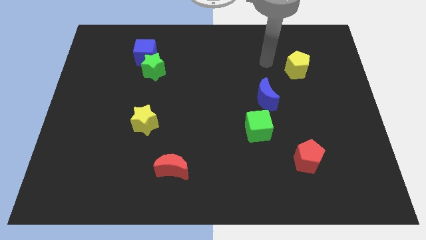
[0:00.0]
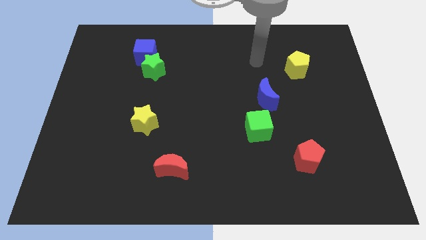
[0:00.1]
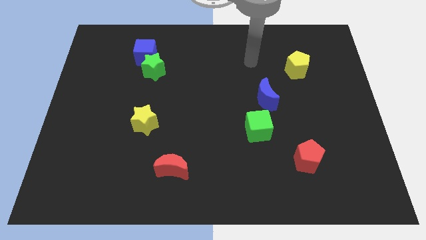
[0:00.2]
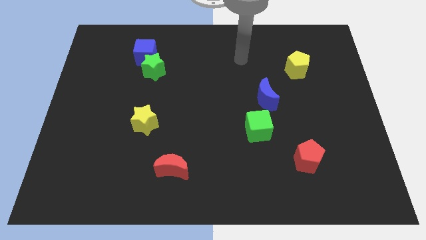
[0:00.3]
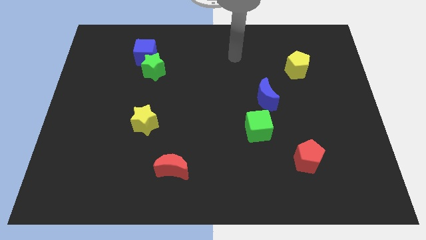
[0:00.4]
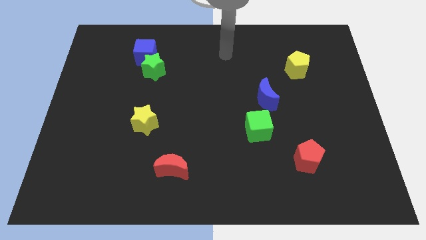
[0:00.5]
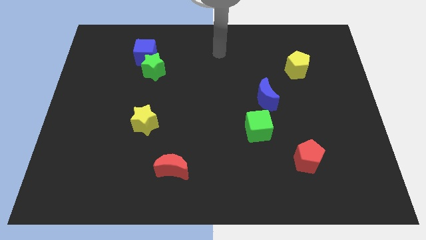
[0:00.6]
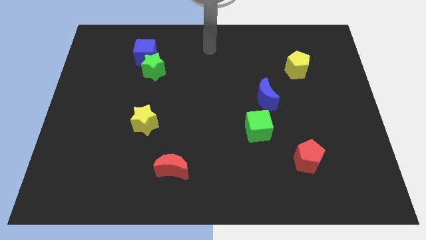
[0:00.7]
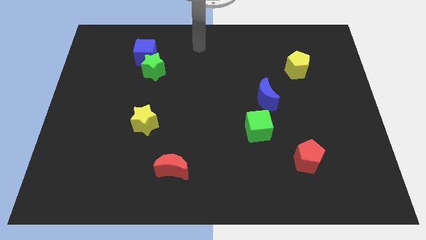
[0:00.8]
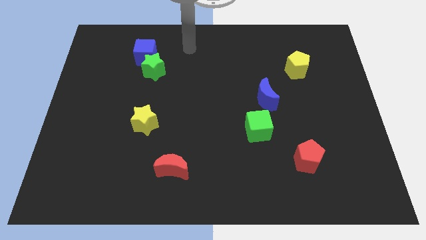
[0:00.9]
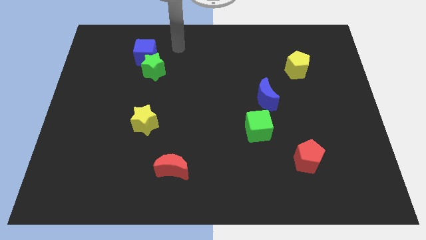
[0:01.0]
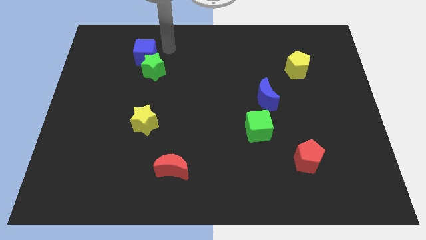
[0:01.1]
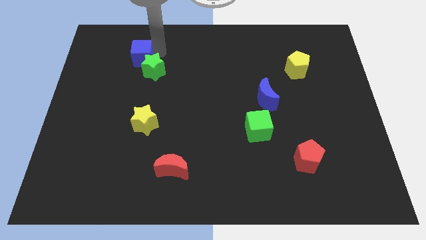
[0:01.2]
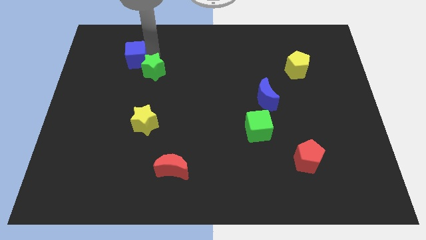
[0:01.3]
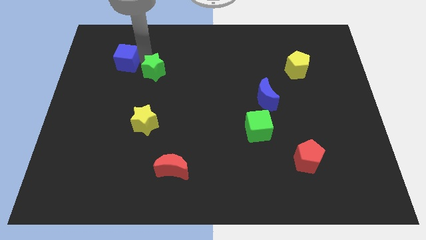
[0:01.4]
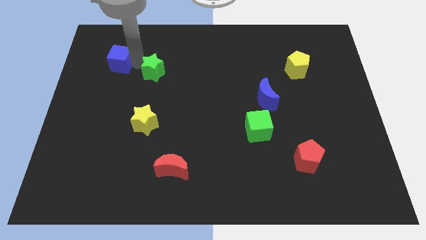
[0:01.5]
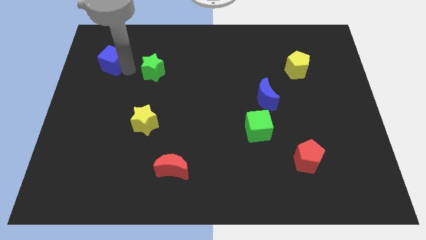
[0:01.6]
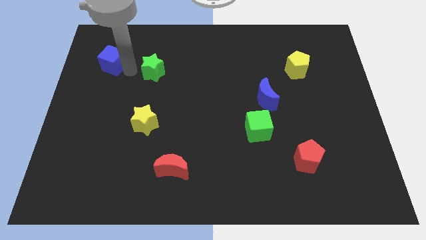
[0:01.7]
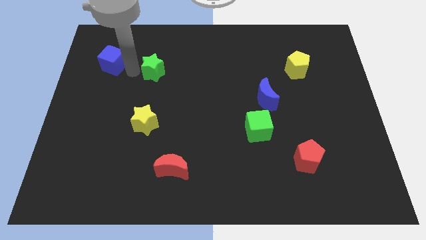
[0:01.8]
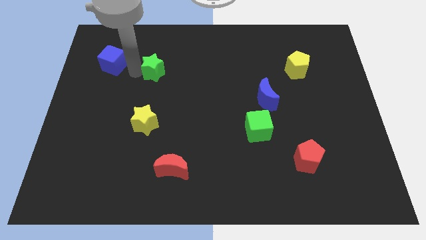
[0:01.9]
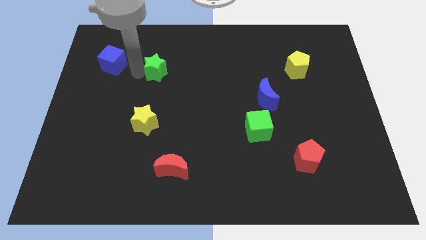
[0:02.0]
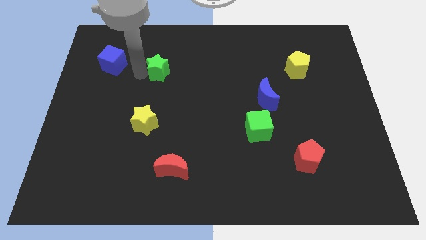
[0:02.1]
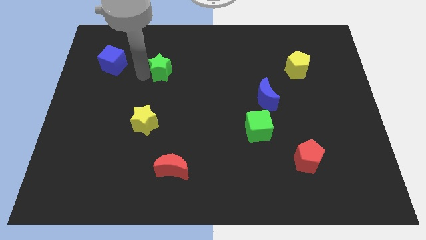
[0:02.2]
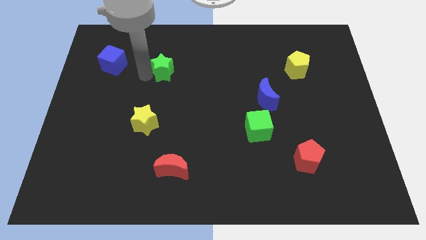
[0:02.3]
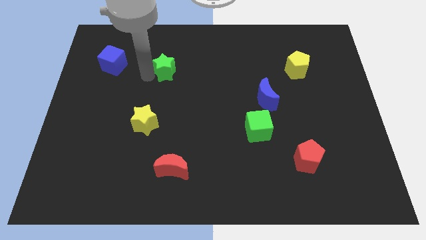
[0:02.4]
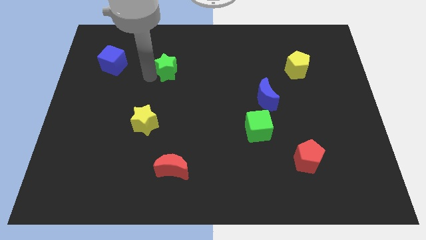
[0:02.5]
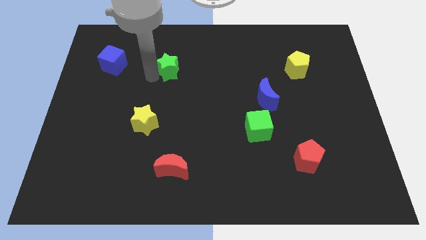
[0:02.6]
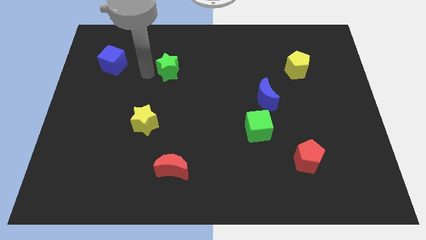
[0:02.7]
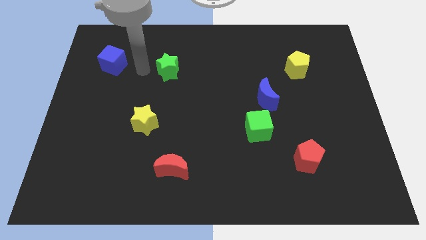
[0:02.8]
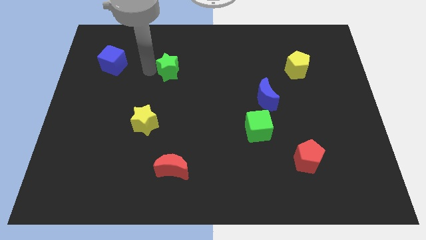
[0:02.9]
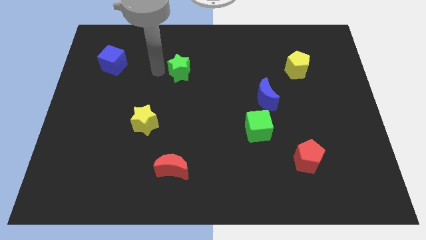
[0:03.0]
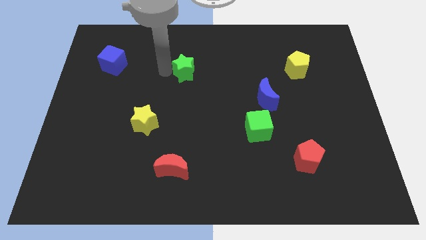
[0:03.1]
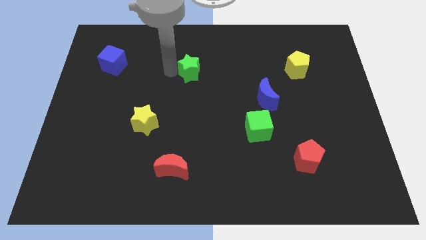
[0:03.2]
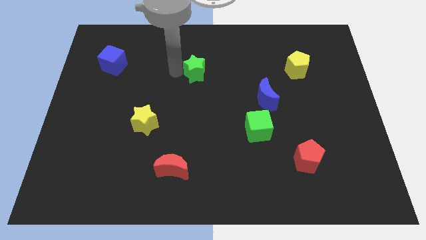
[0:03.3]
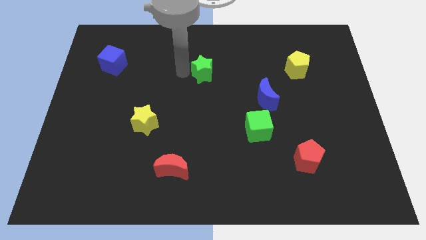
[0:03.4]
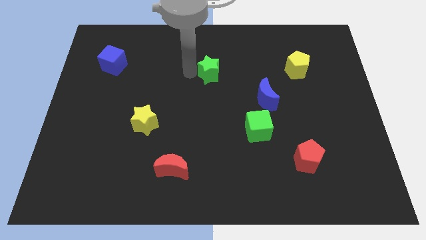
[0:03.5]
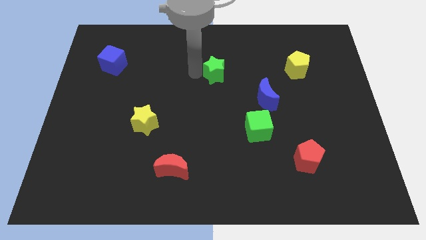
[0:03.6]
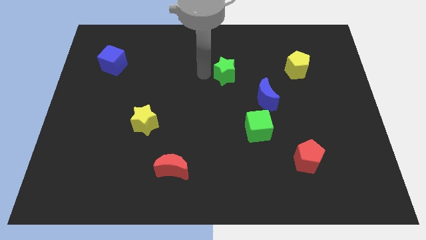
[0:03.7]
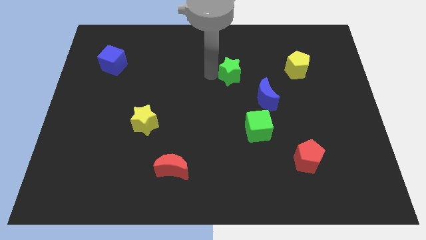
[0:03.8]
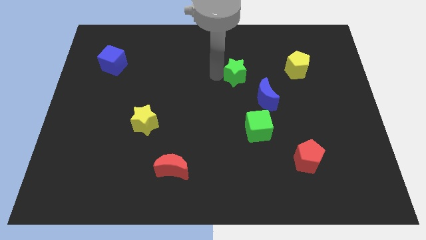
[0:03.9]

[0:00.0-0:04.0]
push the green star right

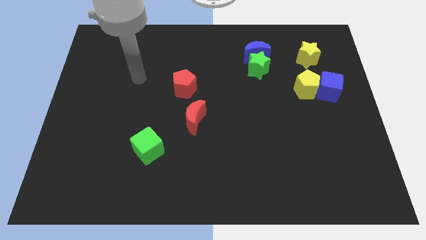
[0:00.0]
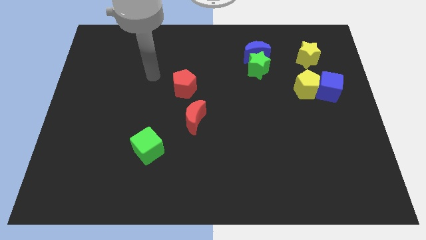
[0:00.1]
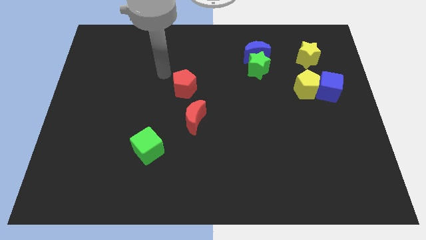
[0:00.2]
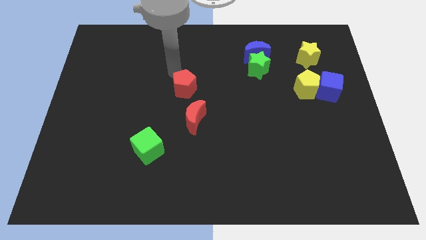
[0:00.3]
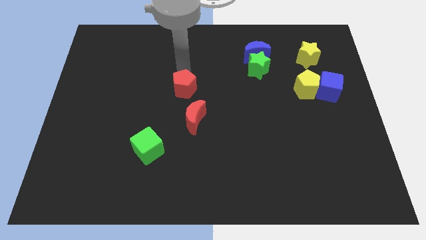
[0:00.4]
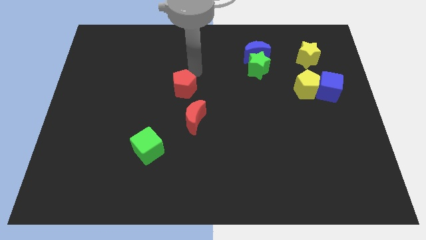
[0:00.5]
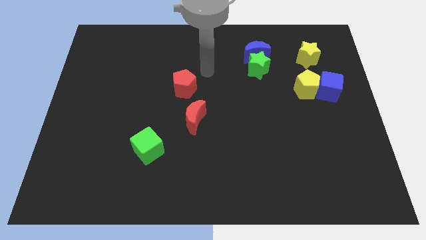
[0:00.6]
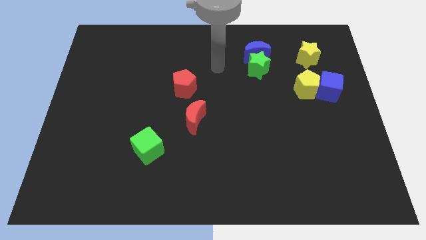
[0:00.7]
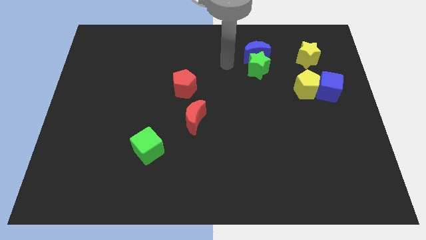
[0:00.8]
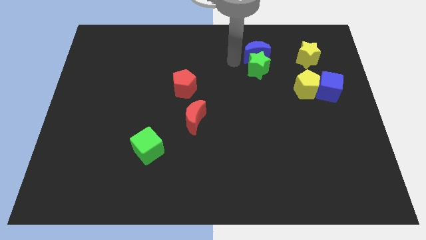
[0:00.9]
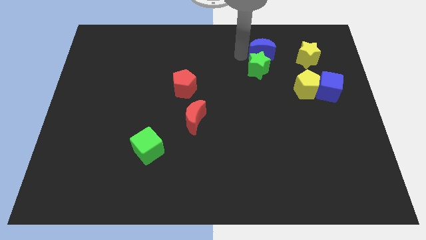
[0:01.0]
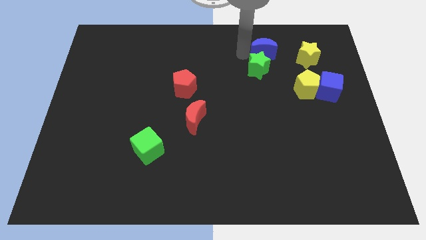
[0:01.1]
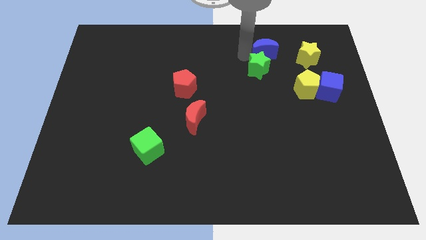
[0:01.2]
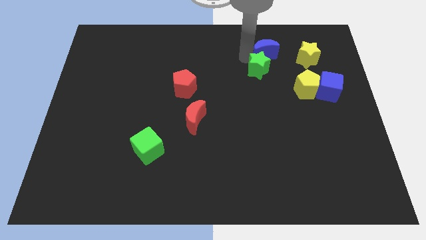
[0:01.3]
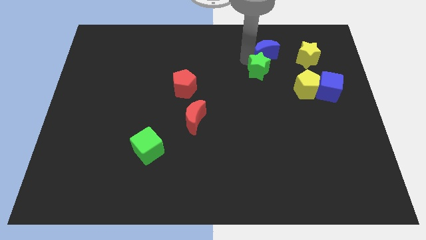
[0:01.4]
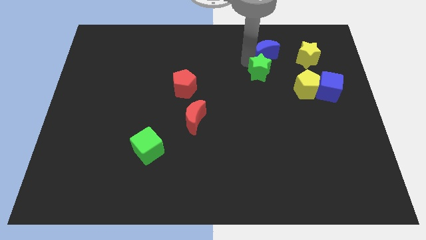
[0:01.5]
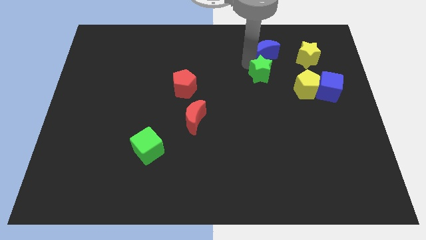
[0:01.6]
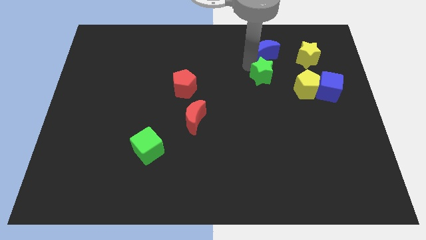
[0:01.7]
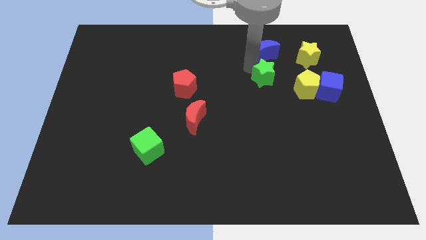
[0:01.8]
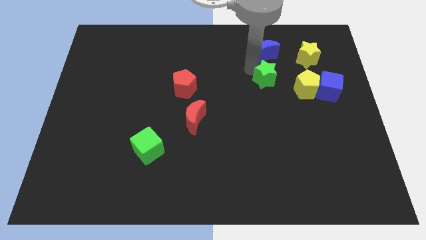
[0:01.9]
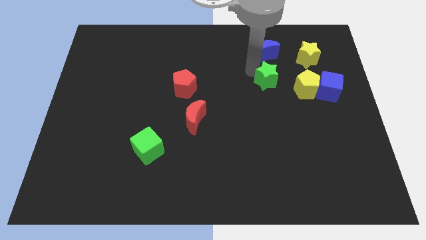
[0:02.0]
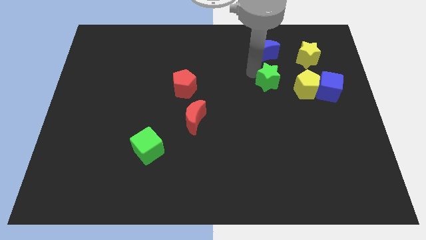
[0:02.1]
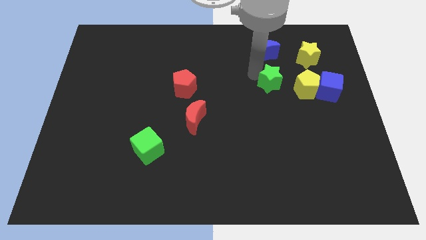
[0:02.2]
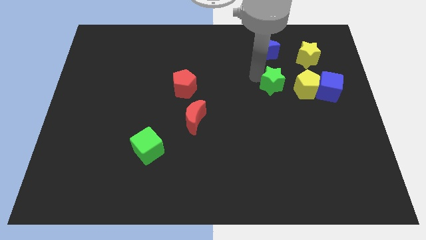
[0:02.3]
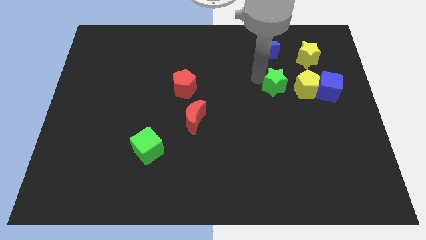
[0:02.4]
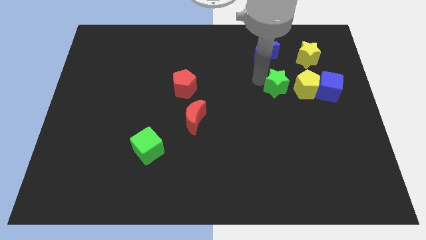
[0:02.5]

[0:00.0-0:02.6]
push the green star a little bit down and right diagonally

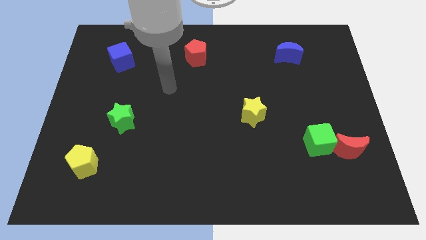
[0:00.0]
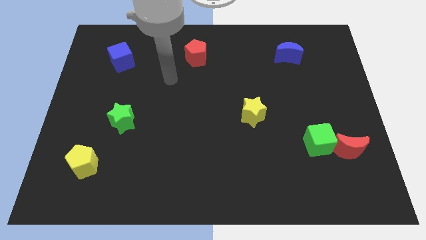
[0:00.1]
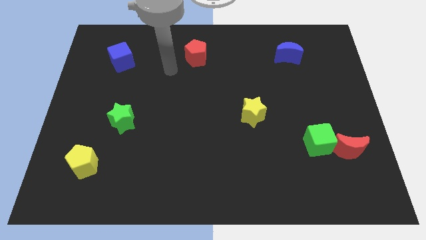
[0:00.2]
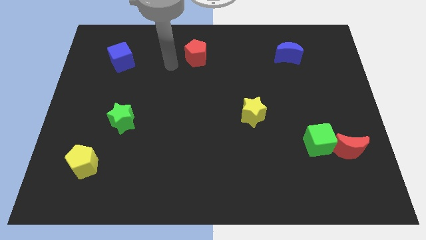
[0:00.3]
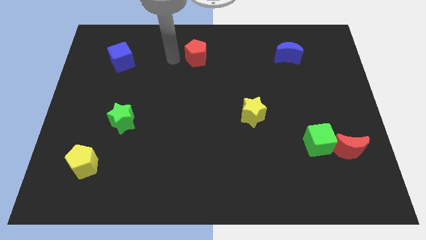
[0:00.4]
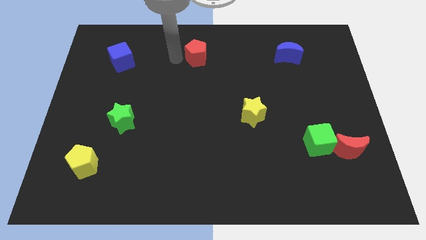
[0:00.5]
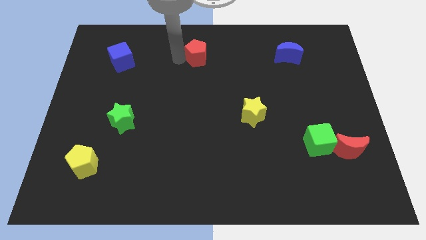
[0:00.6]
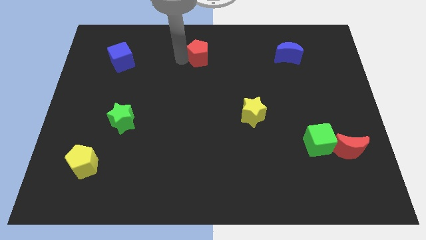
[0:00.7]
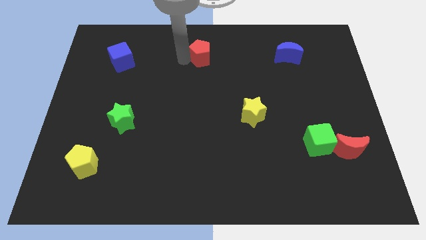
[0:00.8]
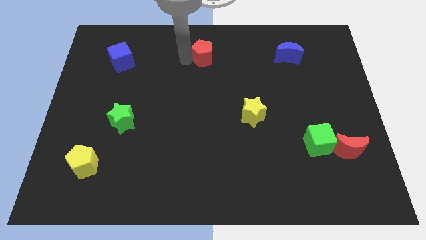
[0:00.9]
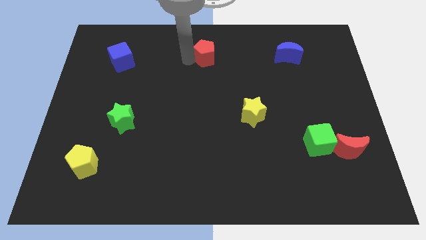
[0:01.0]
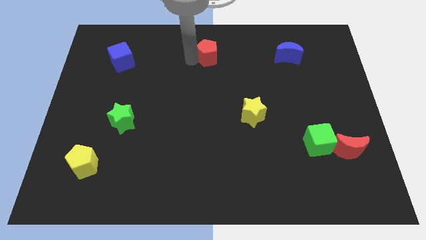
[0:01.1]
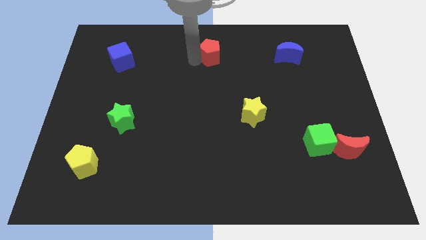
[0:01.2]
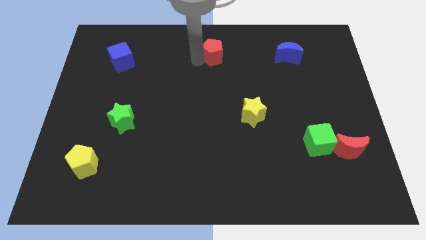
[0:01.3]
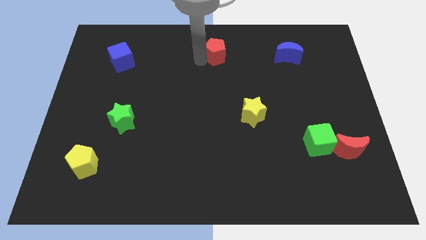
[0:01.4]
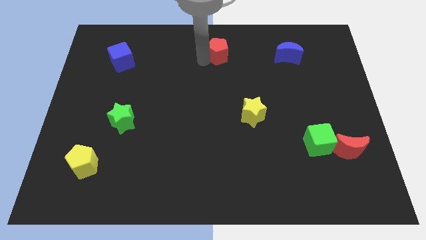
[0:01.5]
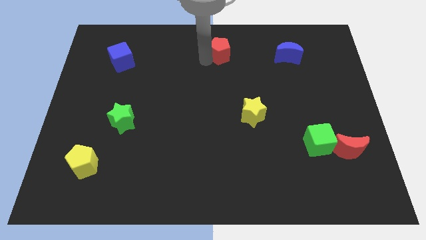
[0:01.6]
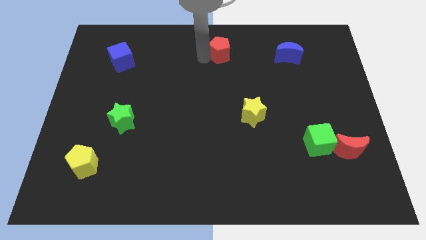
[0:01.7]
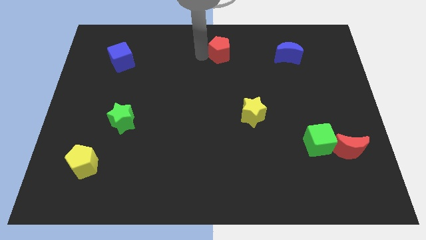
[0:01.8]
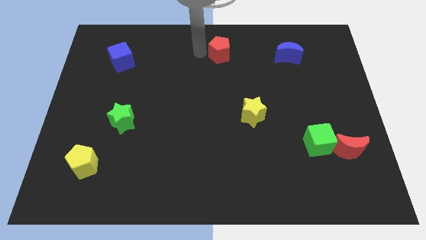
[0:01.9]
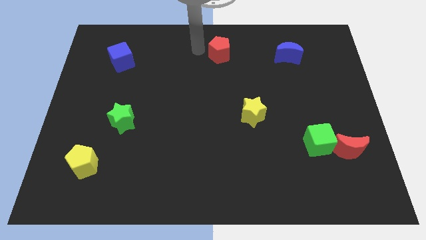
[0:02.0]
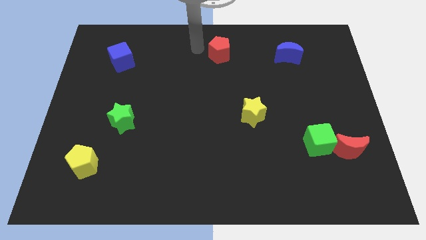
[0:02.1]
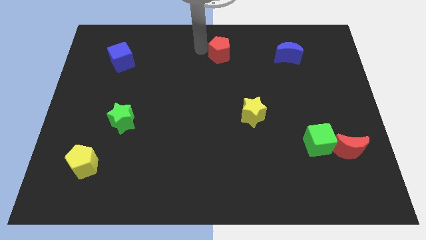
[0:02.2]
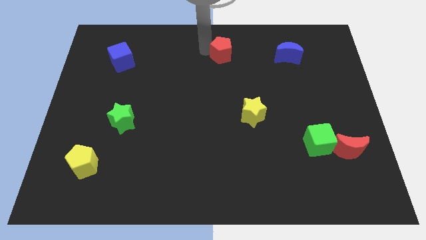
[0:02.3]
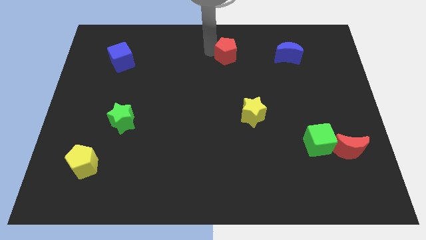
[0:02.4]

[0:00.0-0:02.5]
slightly push the red pentagon to the right
